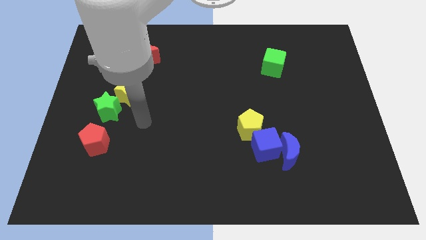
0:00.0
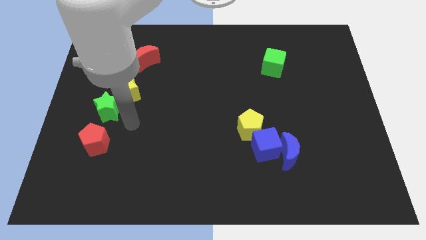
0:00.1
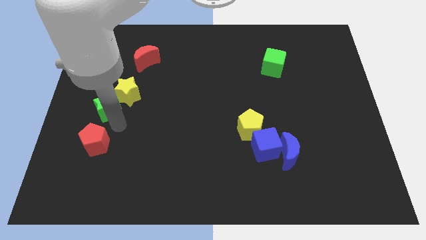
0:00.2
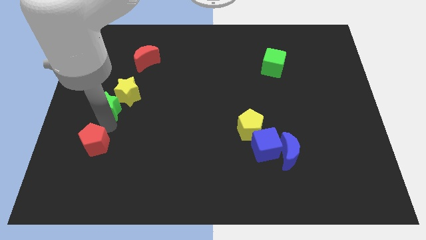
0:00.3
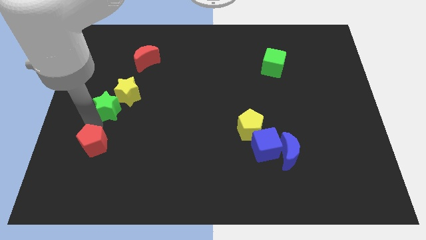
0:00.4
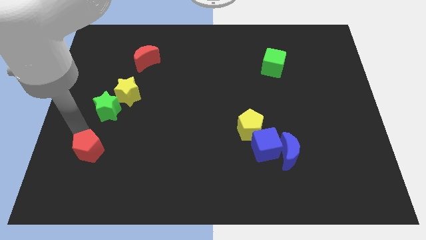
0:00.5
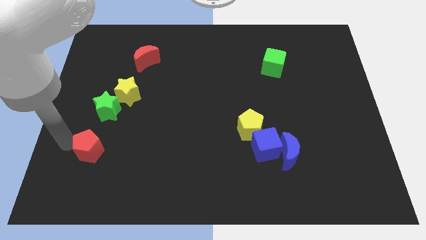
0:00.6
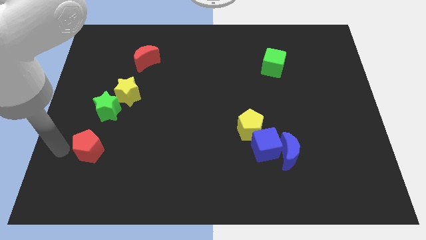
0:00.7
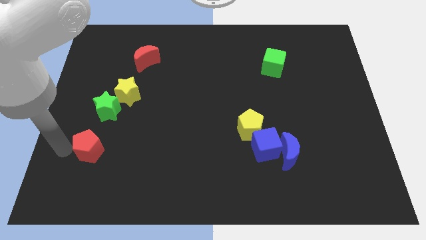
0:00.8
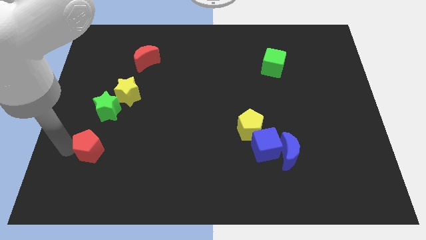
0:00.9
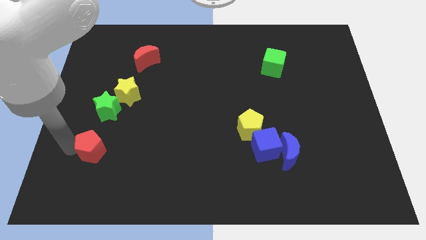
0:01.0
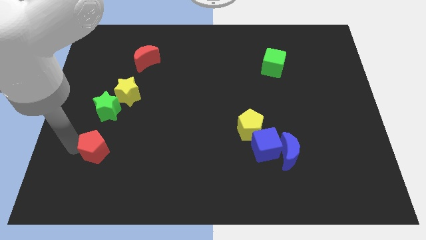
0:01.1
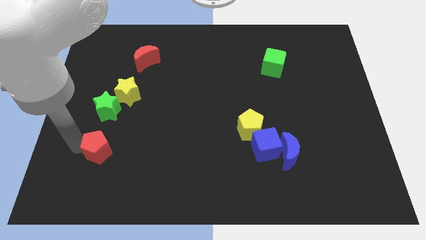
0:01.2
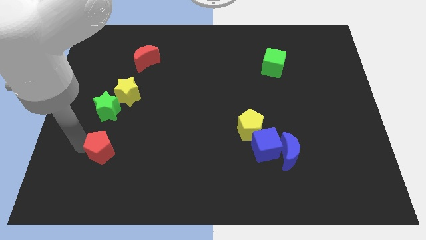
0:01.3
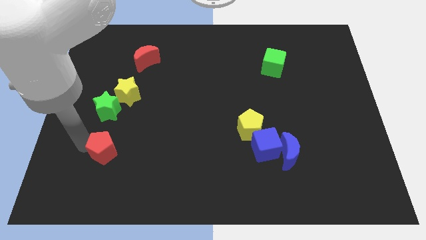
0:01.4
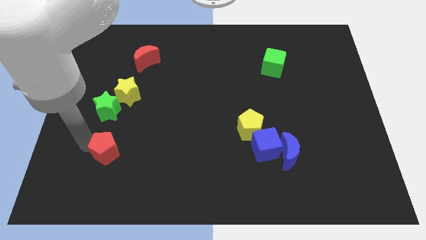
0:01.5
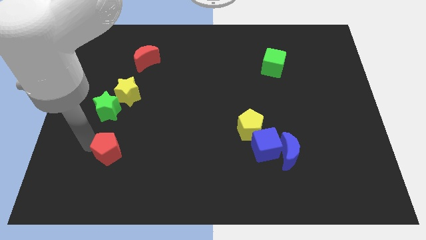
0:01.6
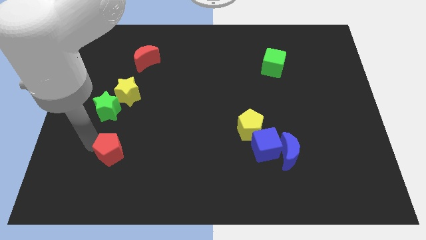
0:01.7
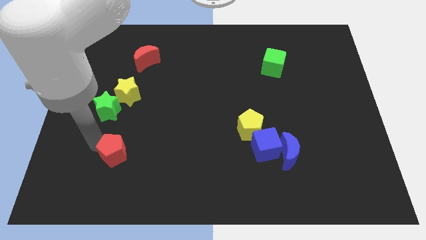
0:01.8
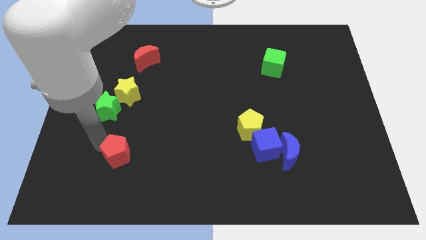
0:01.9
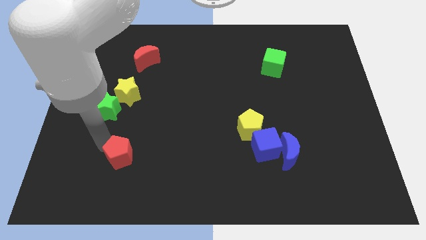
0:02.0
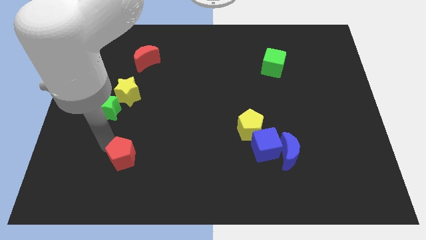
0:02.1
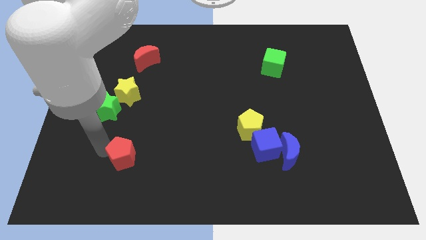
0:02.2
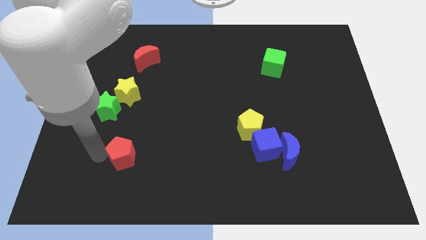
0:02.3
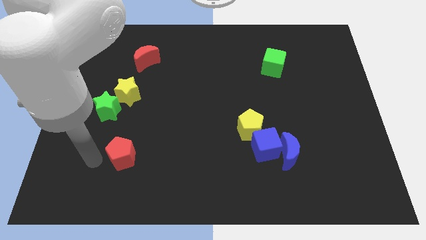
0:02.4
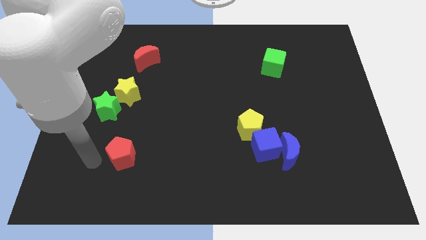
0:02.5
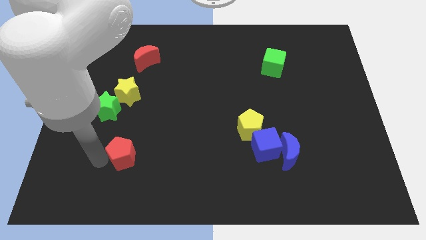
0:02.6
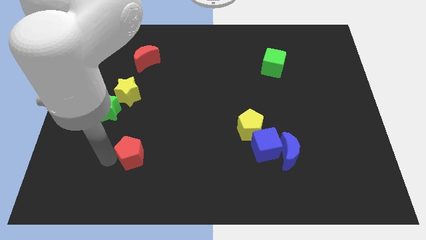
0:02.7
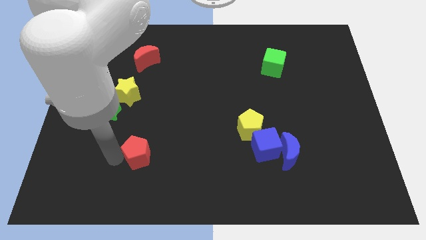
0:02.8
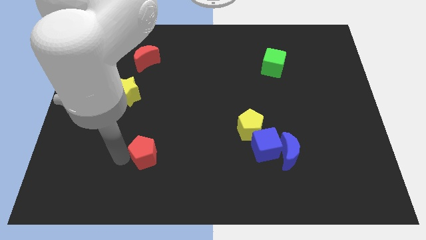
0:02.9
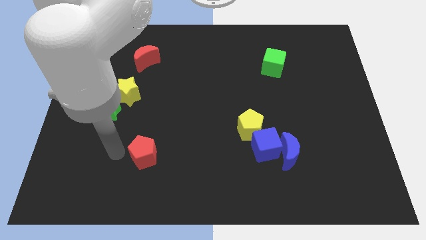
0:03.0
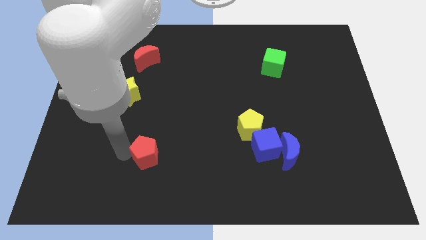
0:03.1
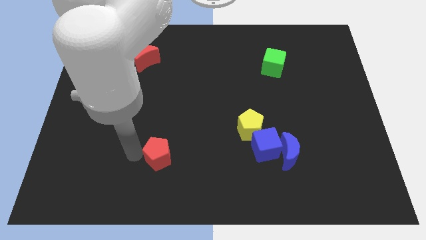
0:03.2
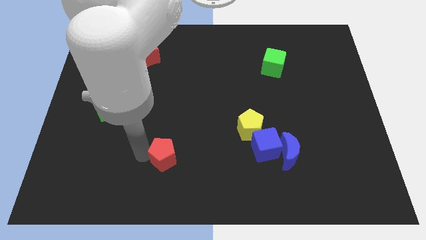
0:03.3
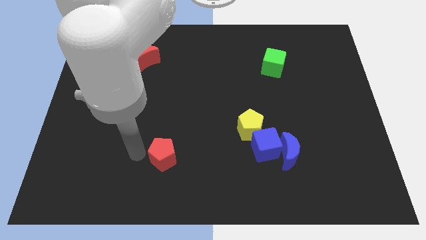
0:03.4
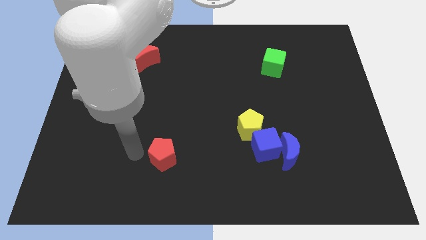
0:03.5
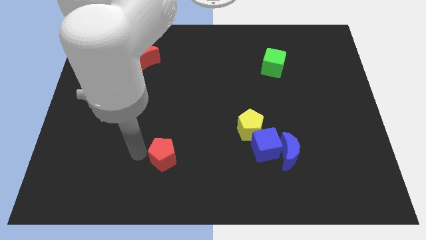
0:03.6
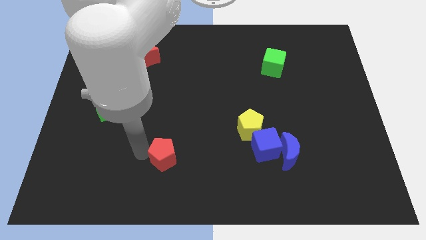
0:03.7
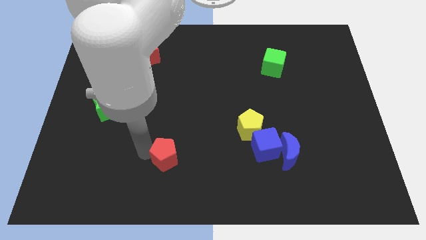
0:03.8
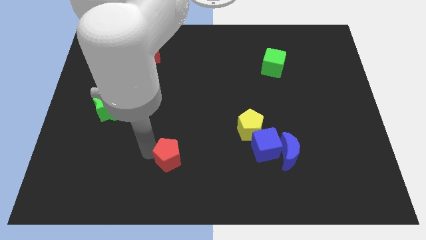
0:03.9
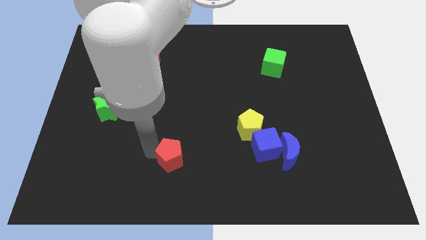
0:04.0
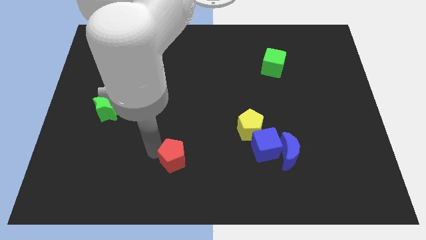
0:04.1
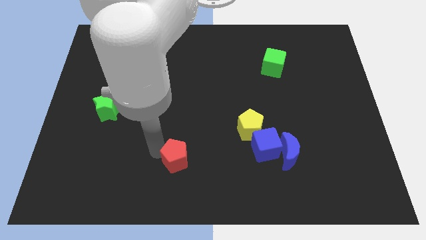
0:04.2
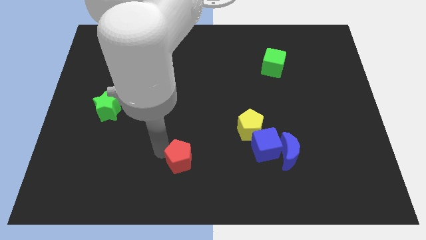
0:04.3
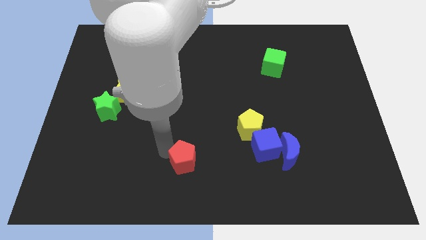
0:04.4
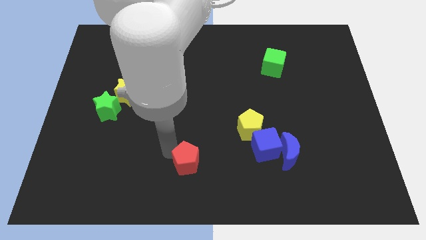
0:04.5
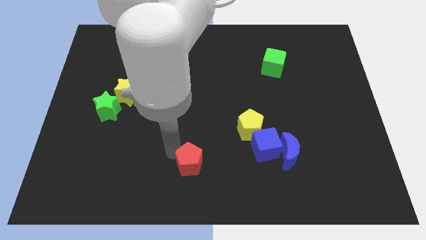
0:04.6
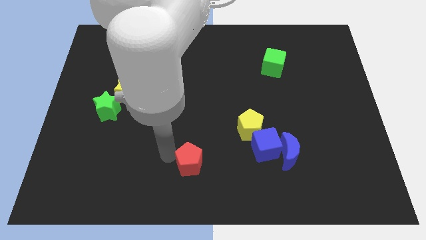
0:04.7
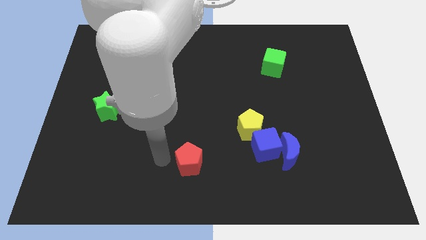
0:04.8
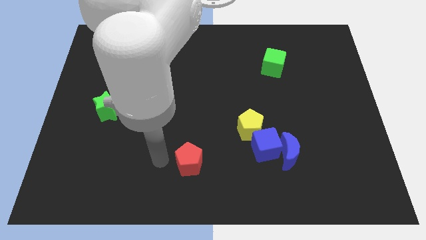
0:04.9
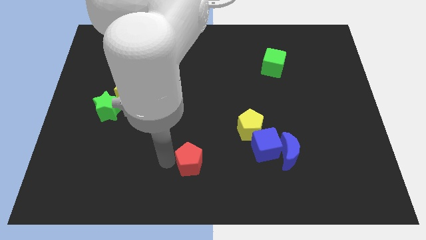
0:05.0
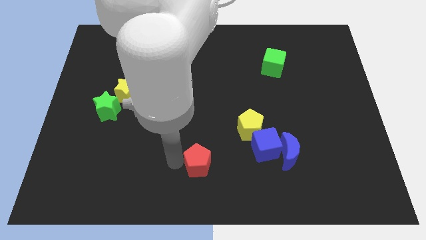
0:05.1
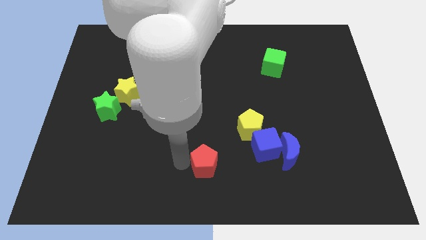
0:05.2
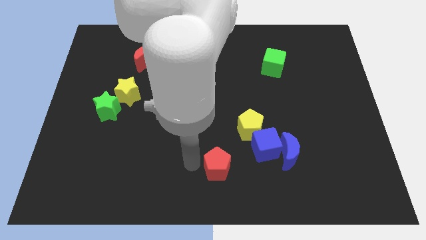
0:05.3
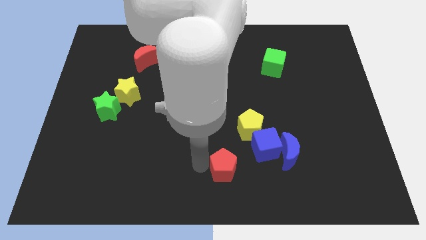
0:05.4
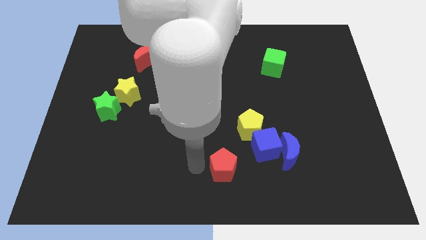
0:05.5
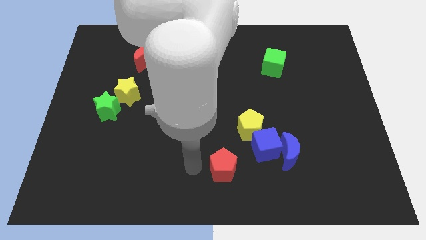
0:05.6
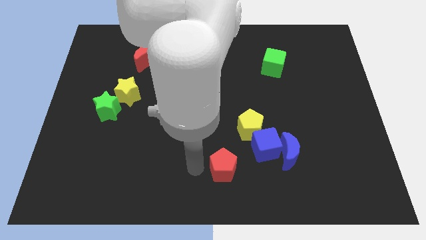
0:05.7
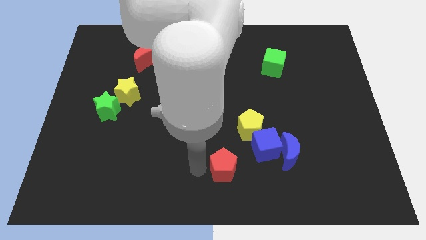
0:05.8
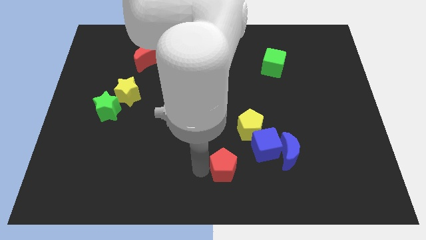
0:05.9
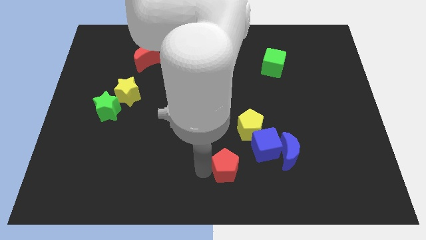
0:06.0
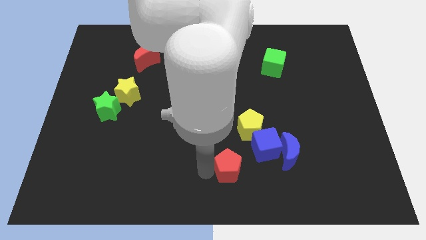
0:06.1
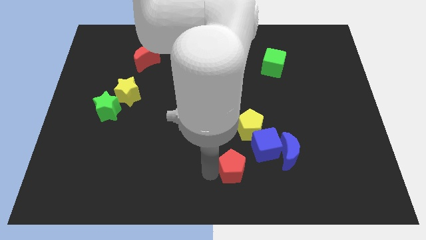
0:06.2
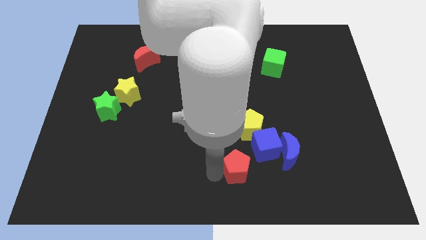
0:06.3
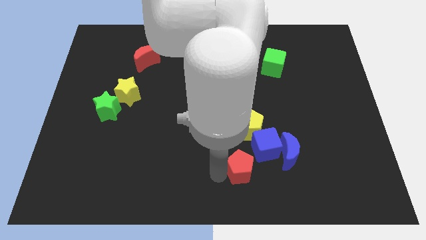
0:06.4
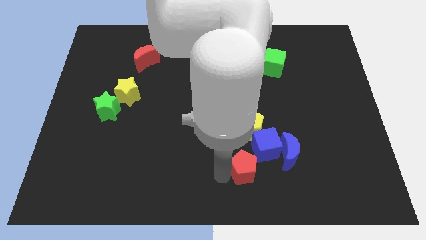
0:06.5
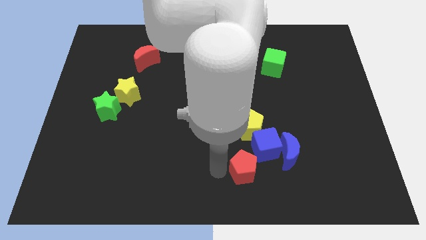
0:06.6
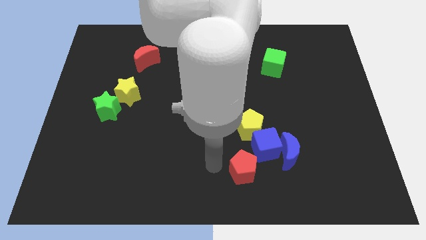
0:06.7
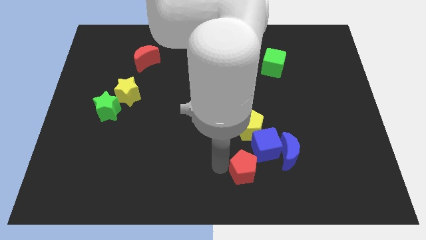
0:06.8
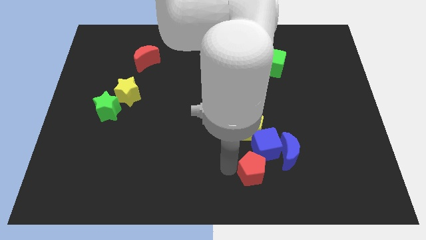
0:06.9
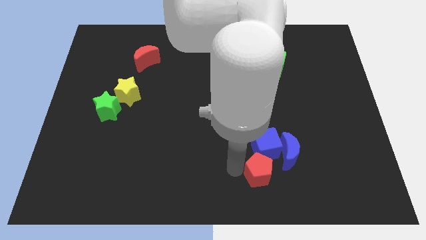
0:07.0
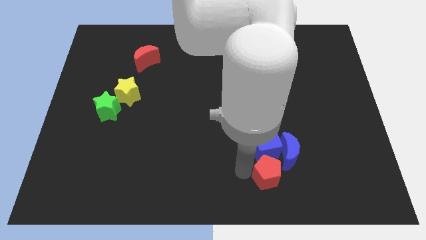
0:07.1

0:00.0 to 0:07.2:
move the red pentagon diagonally down and to the right of the blue cube

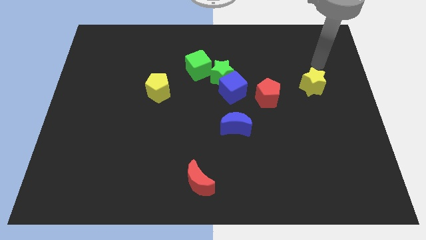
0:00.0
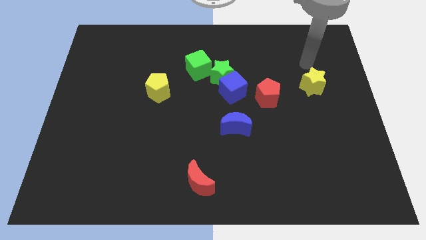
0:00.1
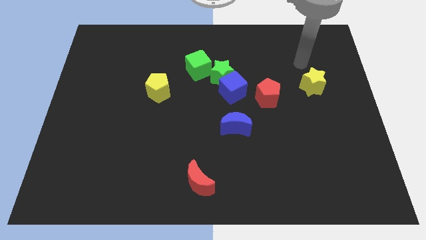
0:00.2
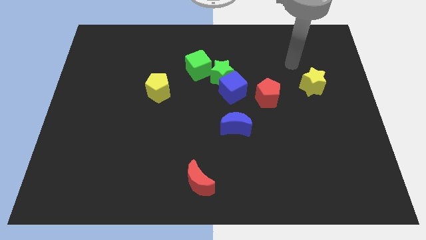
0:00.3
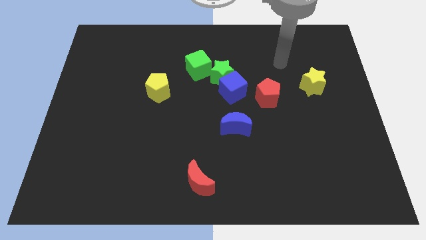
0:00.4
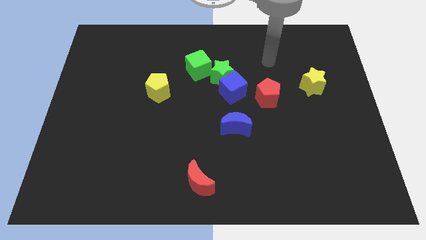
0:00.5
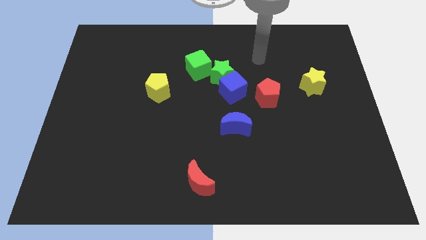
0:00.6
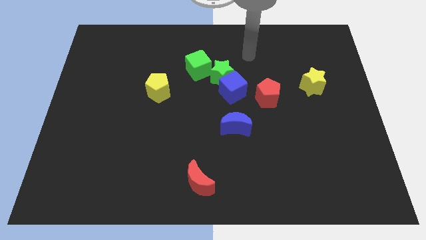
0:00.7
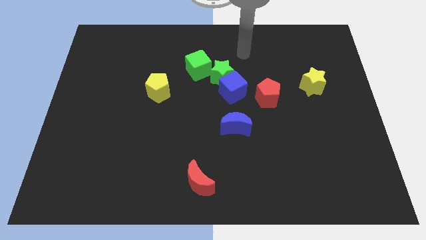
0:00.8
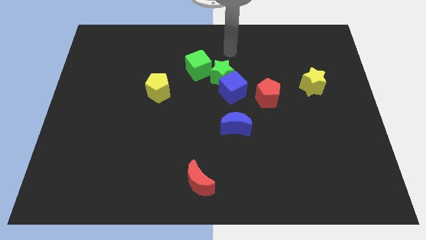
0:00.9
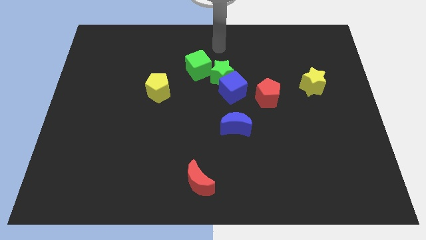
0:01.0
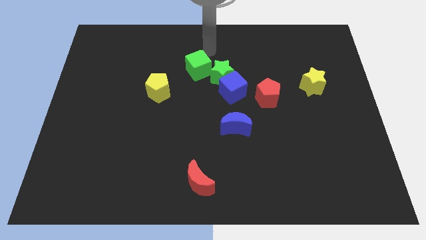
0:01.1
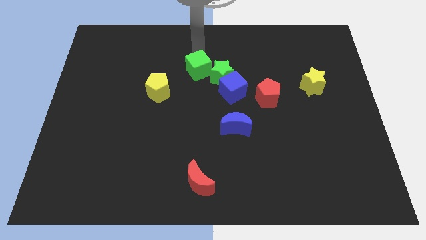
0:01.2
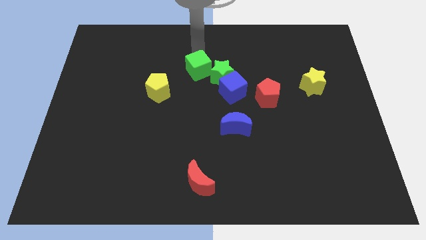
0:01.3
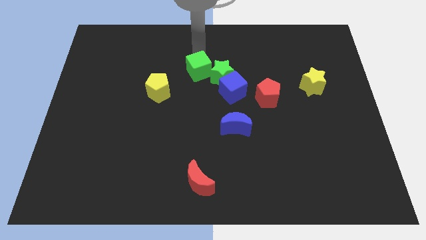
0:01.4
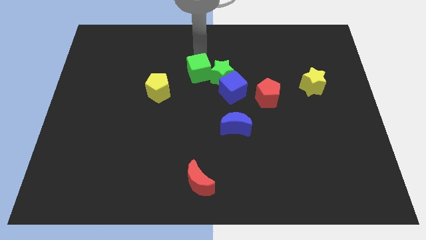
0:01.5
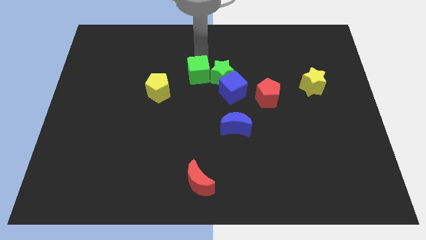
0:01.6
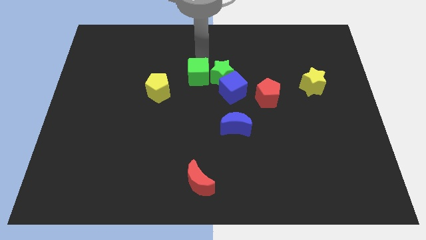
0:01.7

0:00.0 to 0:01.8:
move the green cube diagonally down and to the left of the green star
